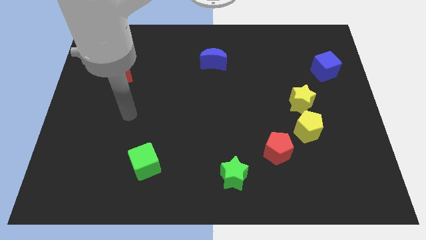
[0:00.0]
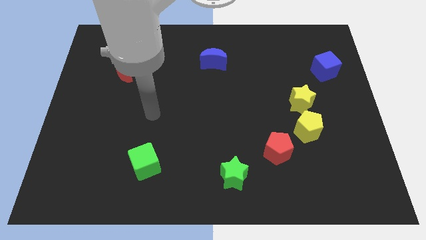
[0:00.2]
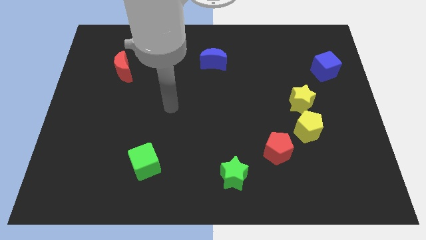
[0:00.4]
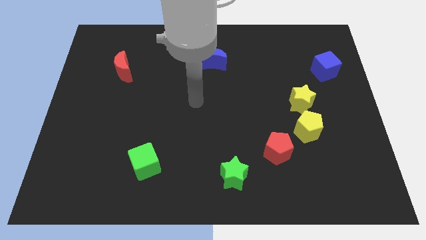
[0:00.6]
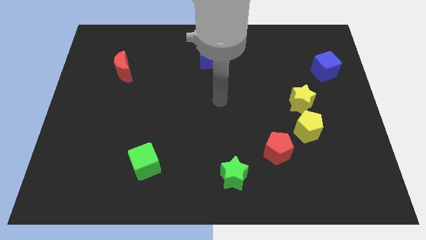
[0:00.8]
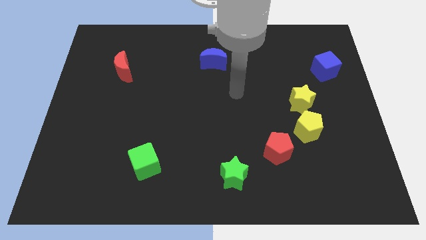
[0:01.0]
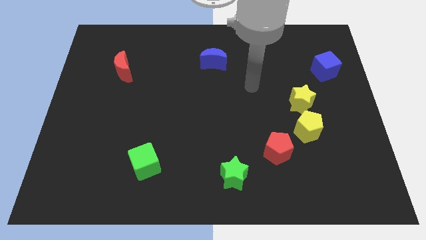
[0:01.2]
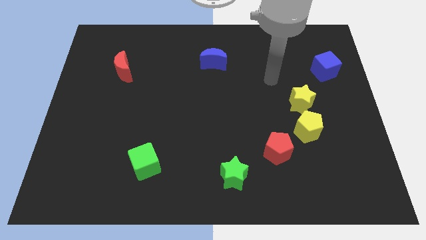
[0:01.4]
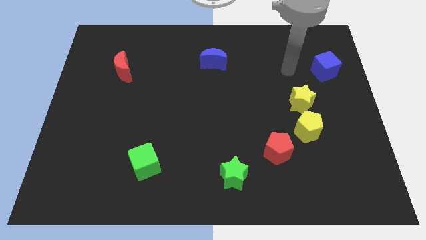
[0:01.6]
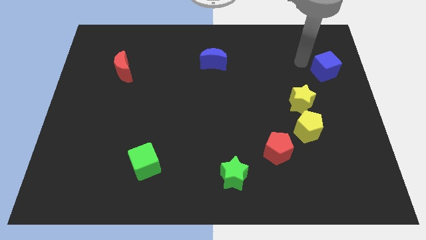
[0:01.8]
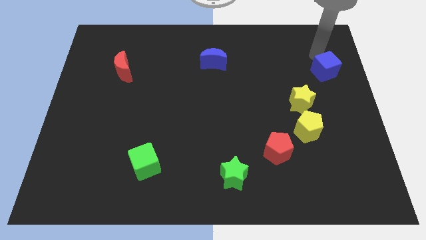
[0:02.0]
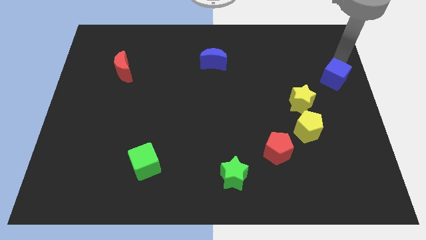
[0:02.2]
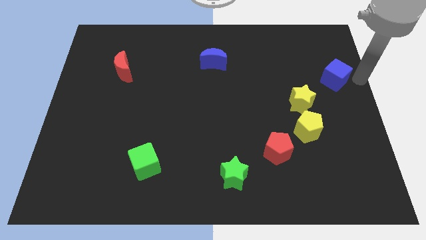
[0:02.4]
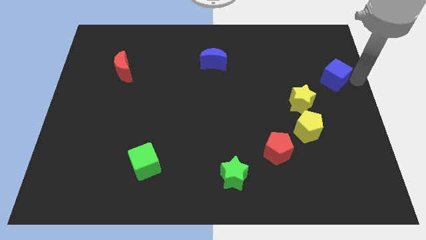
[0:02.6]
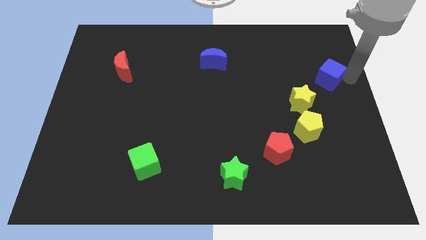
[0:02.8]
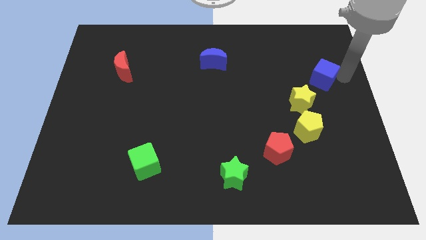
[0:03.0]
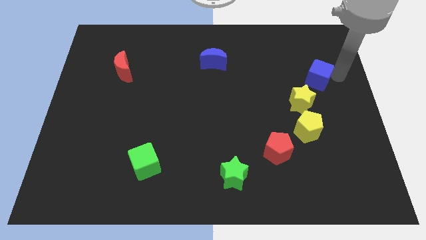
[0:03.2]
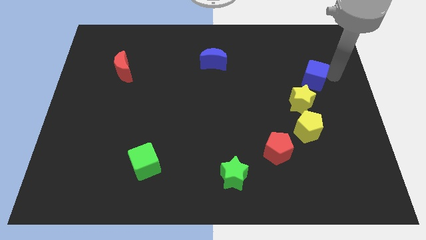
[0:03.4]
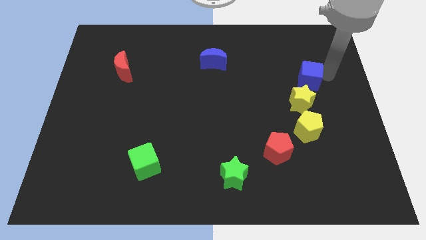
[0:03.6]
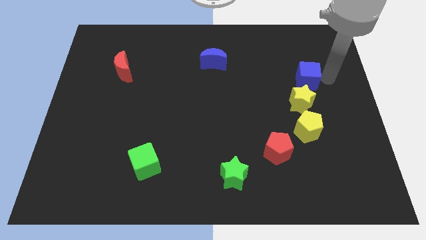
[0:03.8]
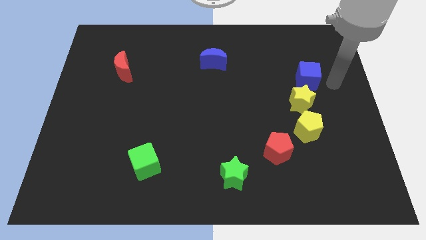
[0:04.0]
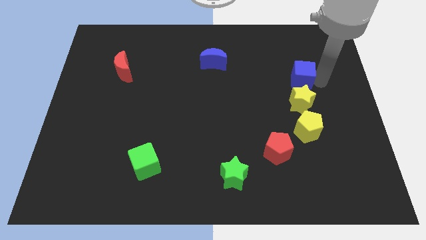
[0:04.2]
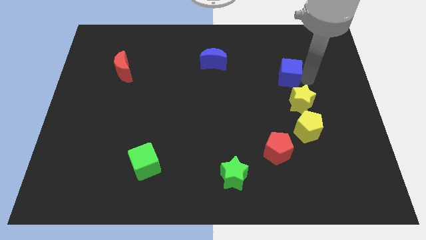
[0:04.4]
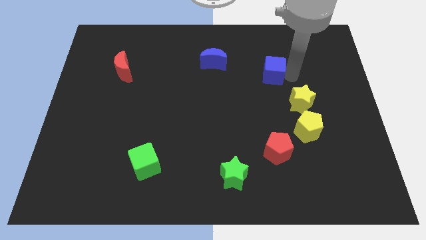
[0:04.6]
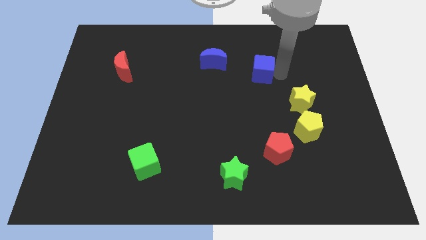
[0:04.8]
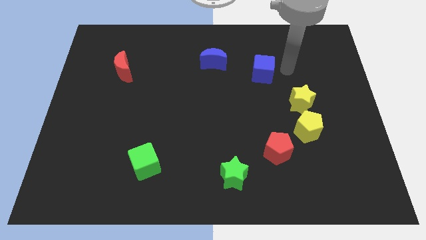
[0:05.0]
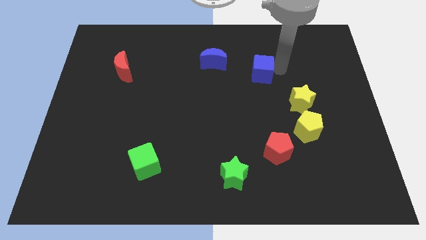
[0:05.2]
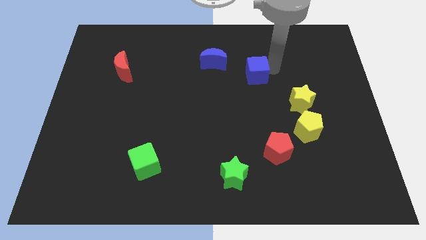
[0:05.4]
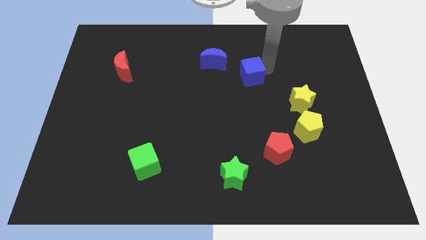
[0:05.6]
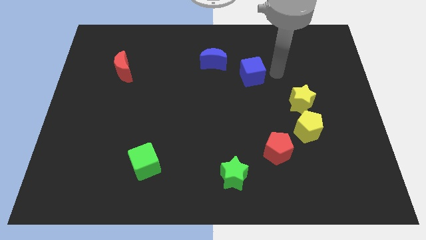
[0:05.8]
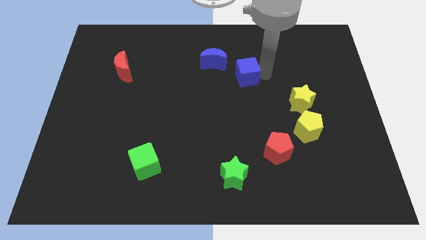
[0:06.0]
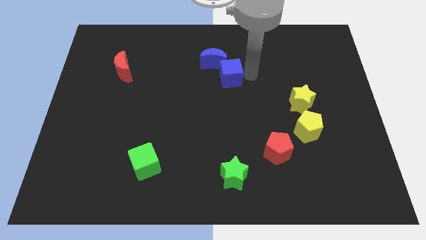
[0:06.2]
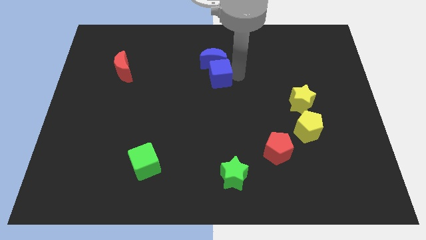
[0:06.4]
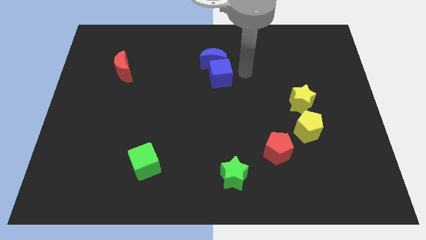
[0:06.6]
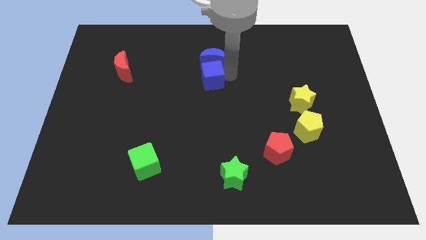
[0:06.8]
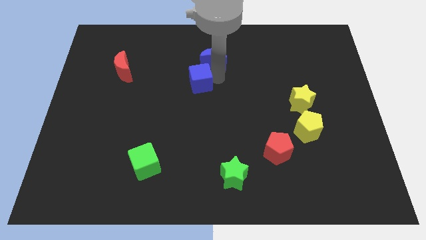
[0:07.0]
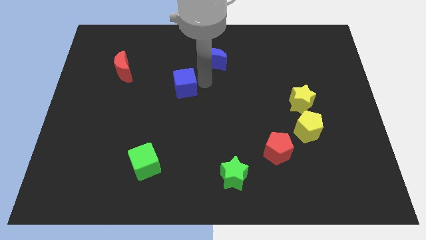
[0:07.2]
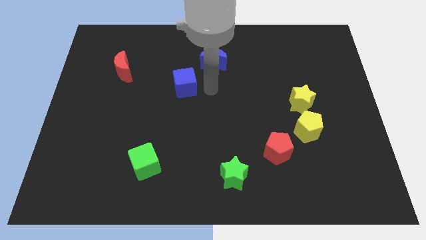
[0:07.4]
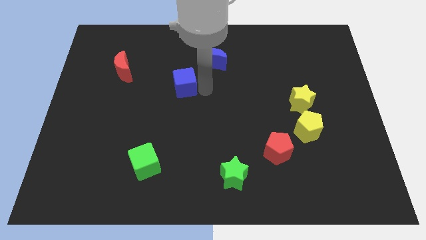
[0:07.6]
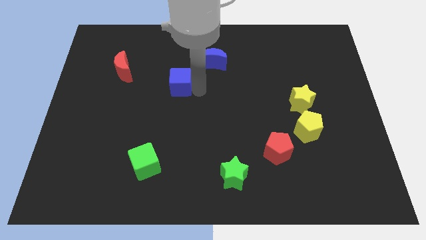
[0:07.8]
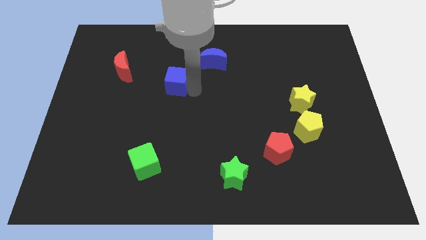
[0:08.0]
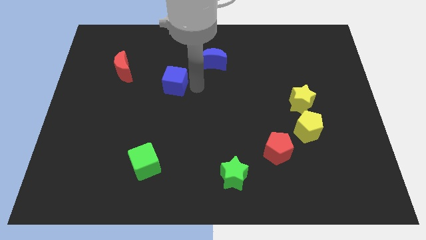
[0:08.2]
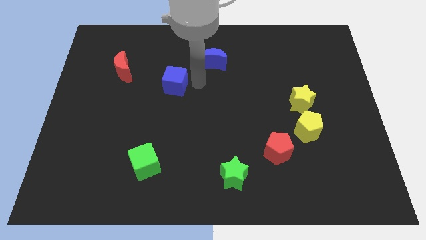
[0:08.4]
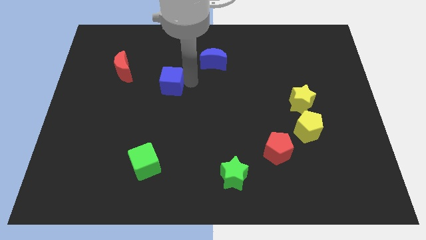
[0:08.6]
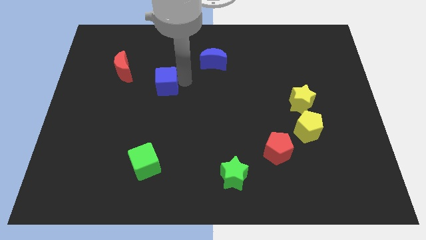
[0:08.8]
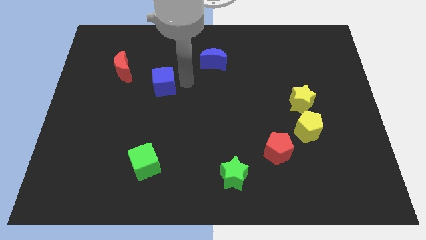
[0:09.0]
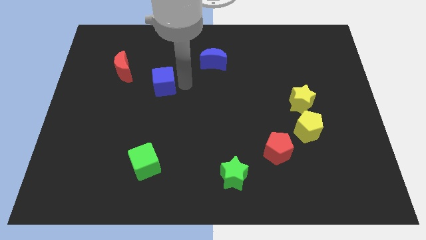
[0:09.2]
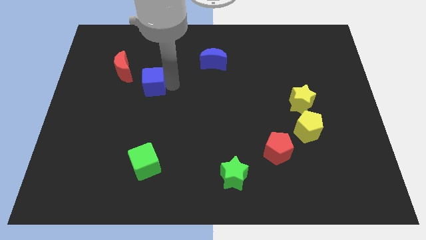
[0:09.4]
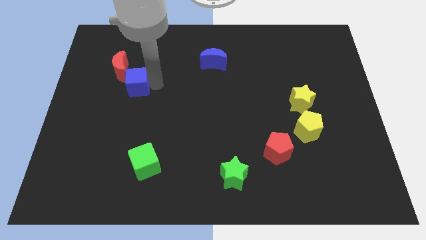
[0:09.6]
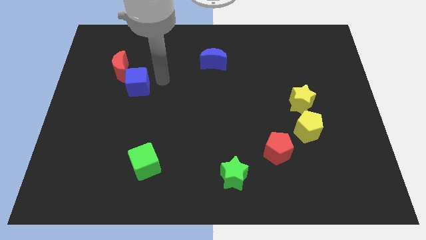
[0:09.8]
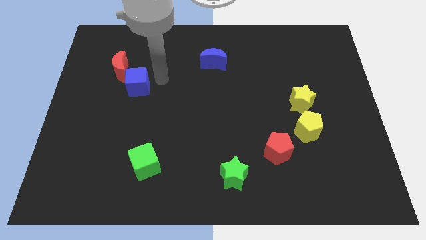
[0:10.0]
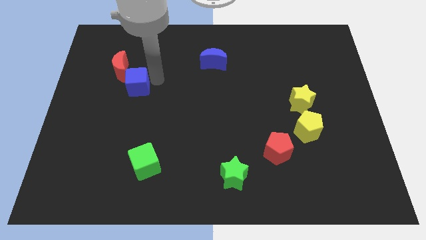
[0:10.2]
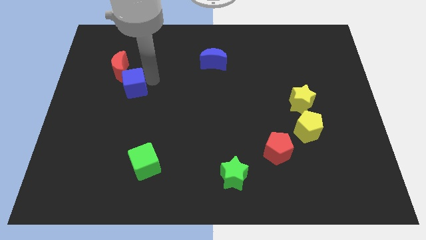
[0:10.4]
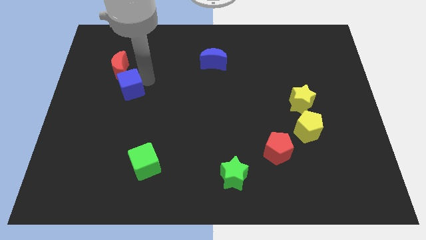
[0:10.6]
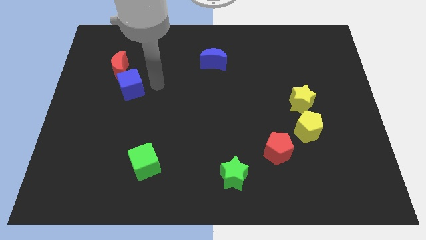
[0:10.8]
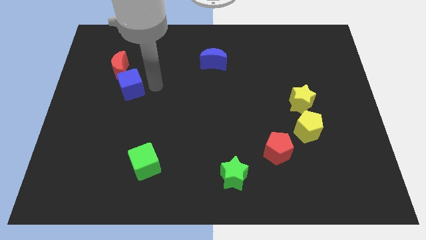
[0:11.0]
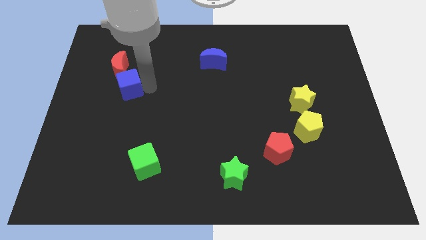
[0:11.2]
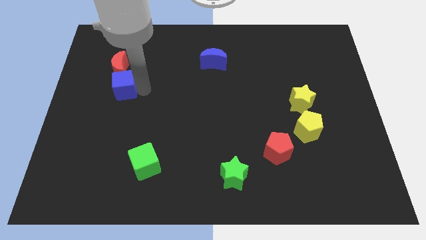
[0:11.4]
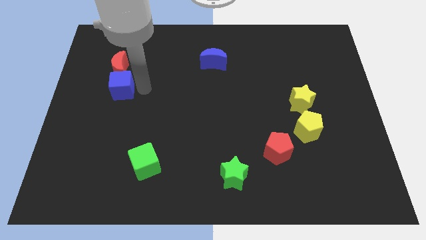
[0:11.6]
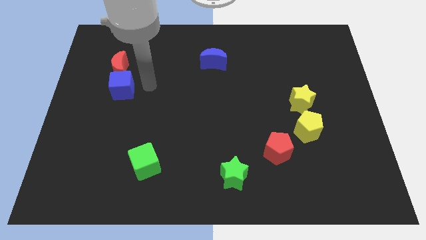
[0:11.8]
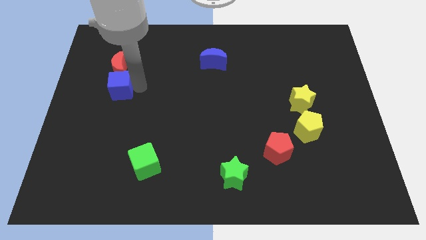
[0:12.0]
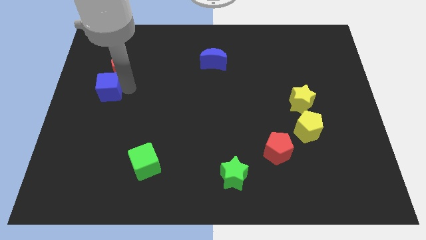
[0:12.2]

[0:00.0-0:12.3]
move the blue cube to the left side
